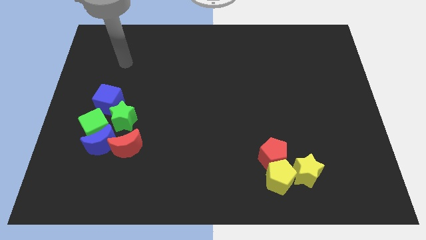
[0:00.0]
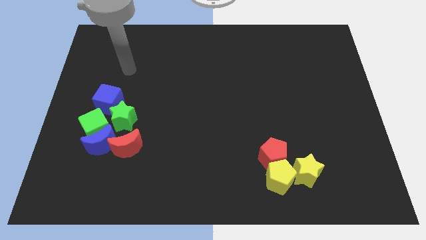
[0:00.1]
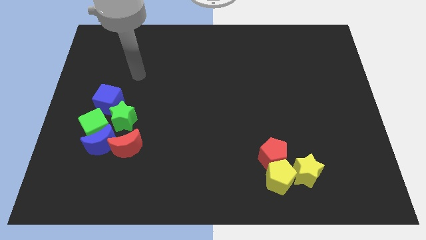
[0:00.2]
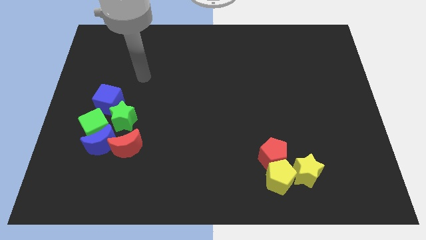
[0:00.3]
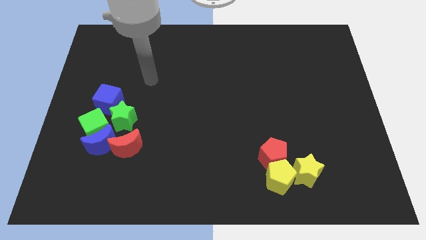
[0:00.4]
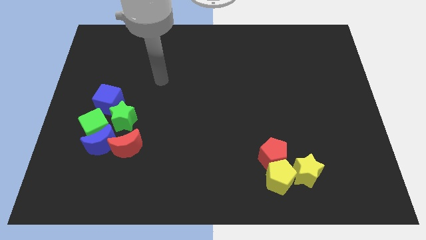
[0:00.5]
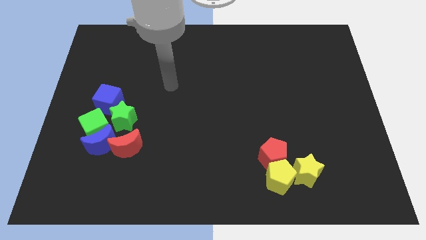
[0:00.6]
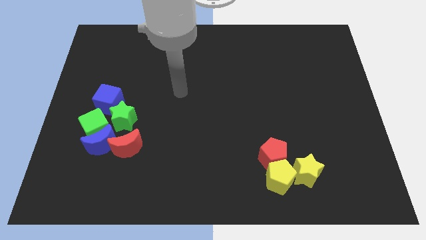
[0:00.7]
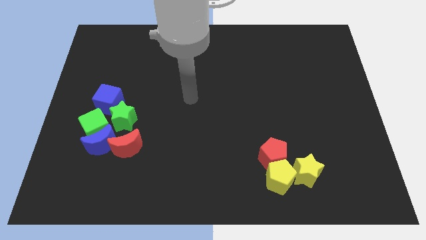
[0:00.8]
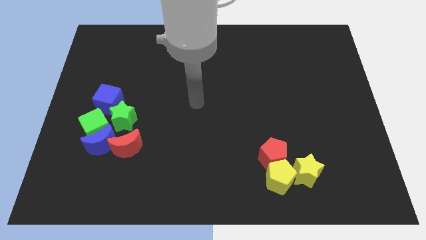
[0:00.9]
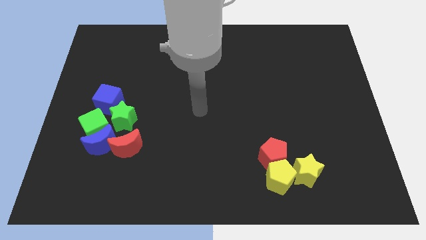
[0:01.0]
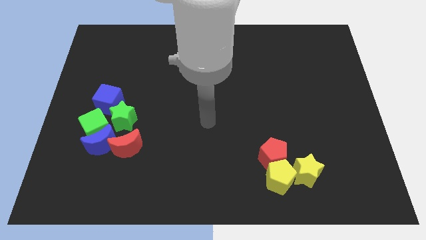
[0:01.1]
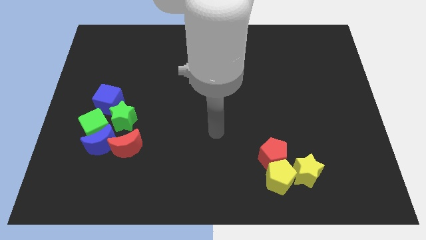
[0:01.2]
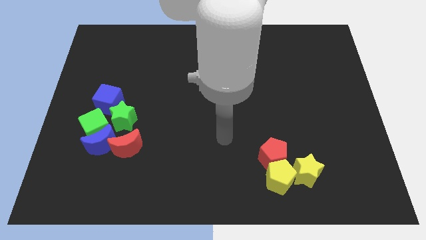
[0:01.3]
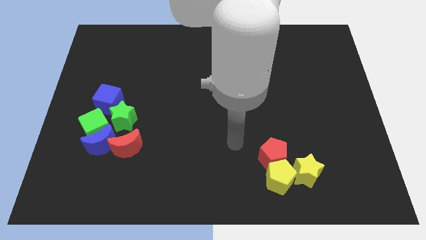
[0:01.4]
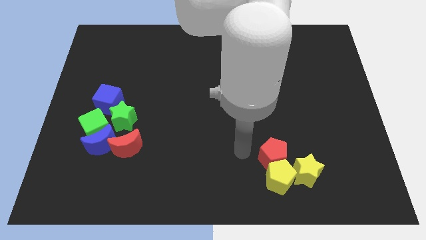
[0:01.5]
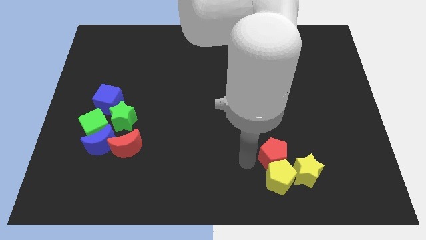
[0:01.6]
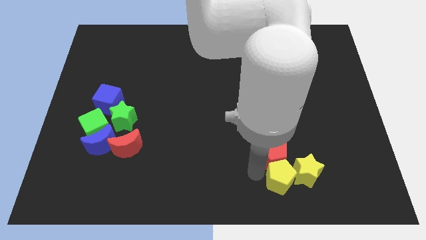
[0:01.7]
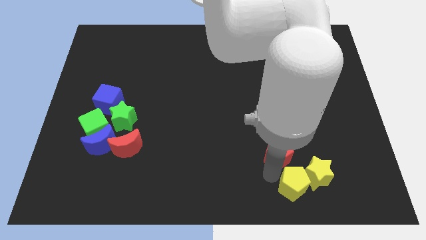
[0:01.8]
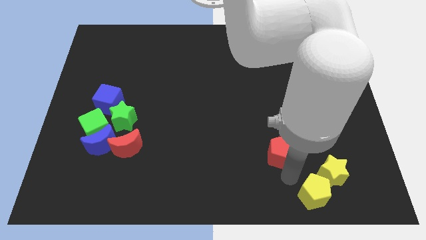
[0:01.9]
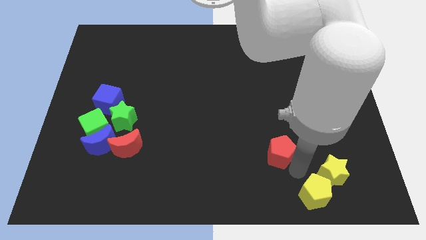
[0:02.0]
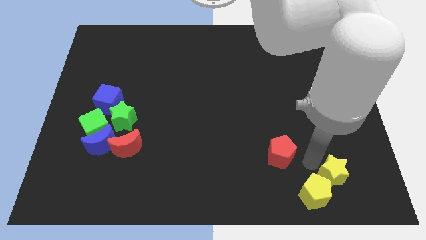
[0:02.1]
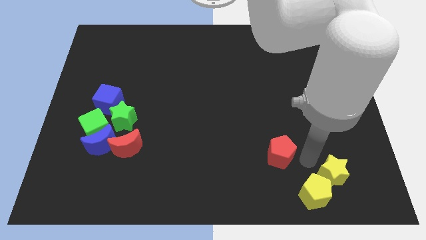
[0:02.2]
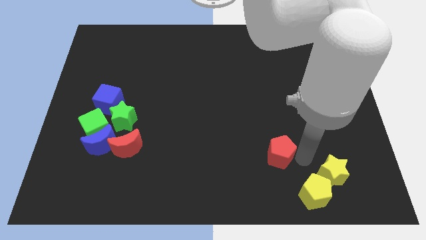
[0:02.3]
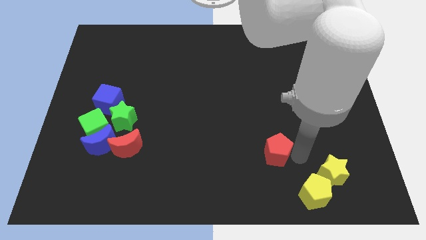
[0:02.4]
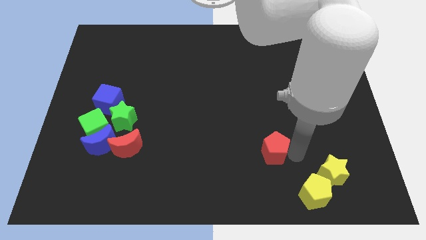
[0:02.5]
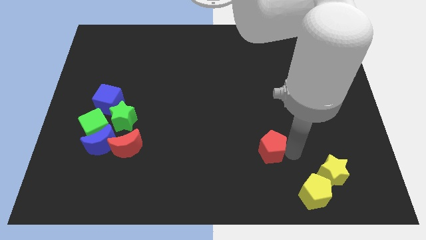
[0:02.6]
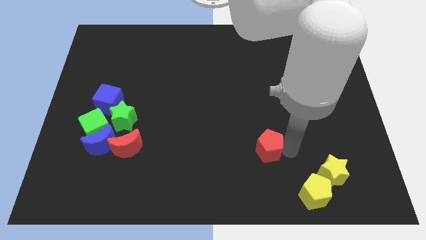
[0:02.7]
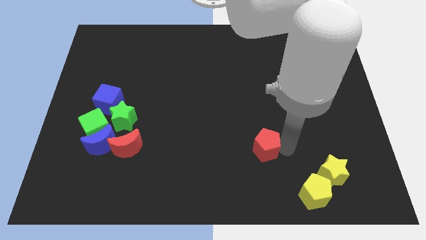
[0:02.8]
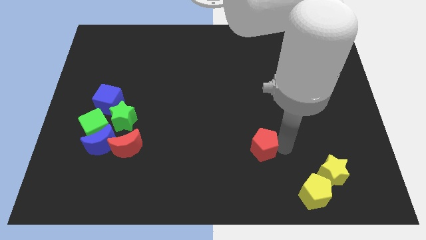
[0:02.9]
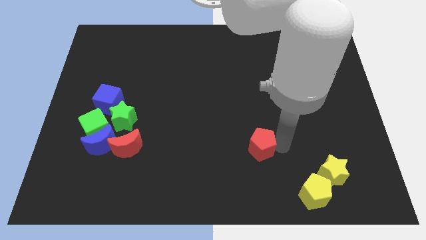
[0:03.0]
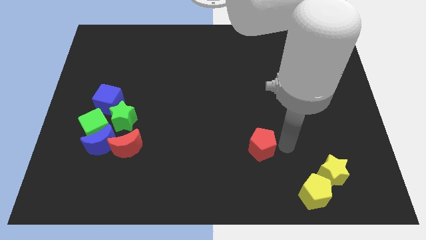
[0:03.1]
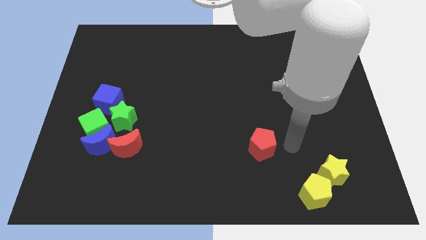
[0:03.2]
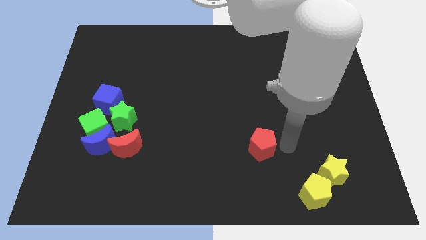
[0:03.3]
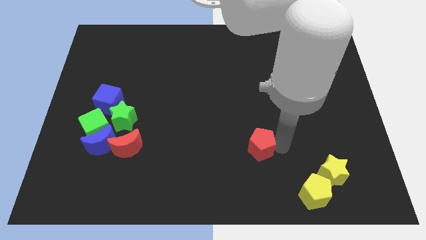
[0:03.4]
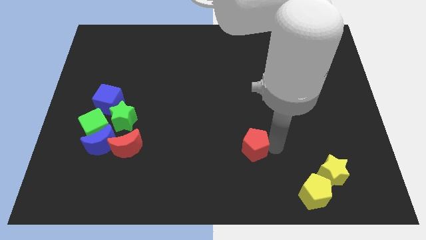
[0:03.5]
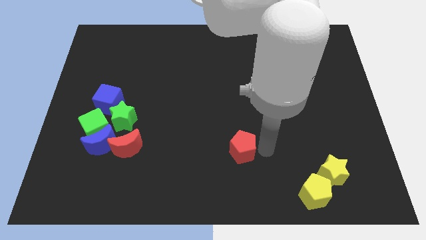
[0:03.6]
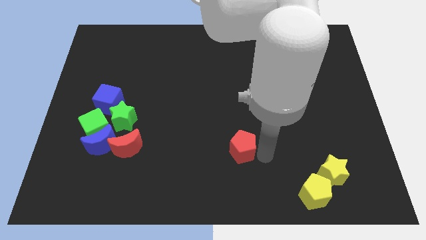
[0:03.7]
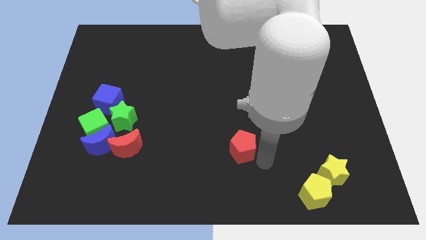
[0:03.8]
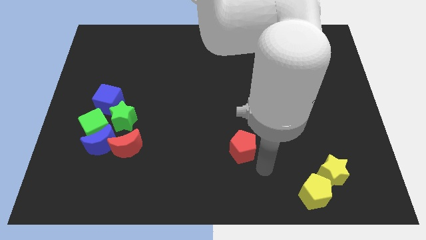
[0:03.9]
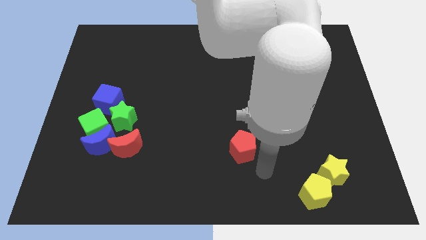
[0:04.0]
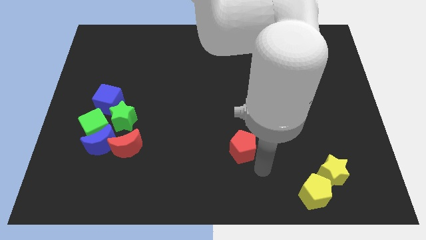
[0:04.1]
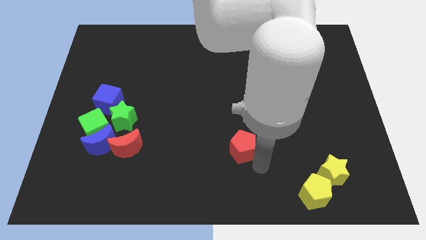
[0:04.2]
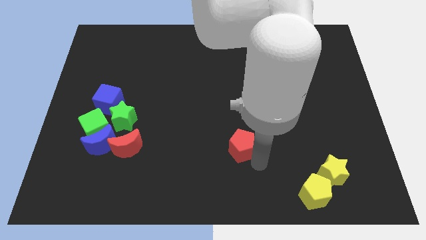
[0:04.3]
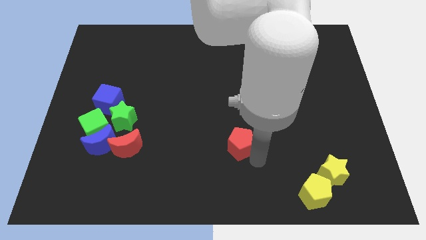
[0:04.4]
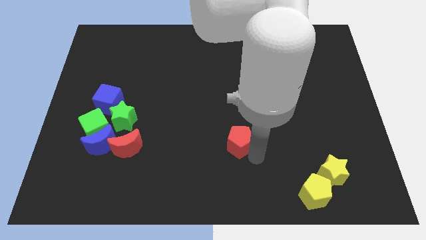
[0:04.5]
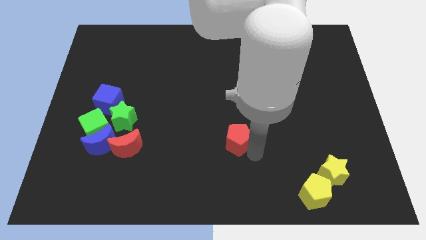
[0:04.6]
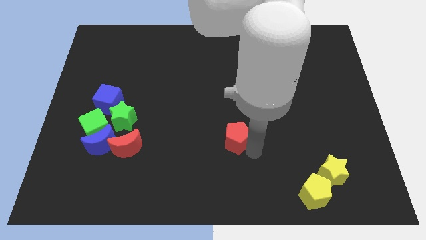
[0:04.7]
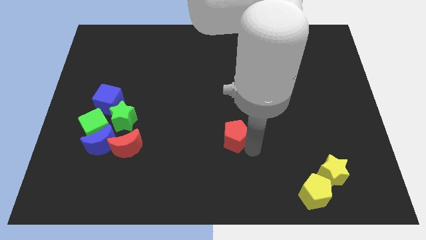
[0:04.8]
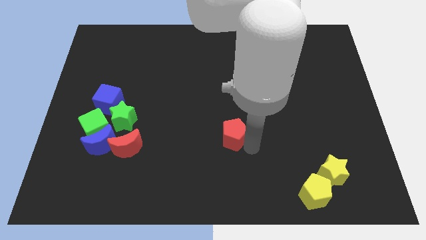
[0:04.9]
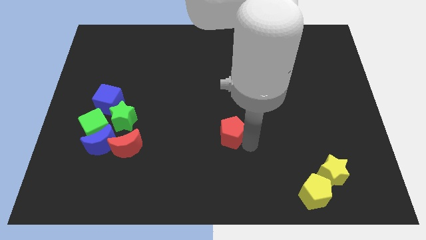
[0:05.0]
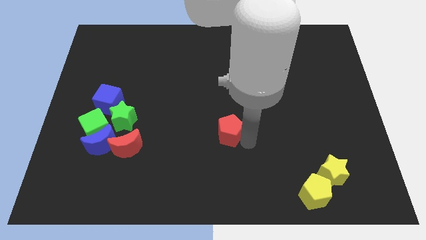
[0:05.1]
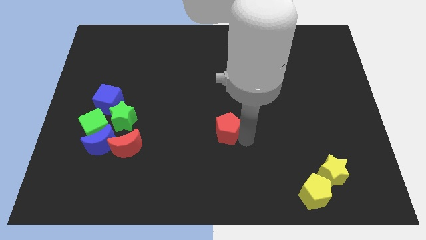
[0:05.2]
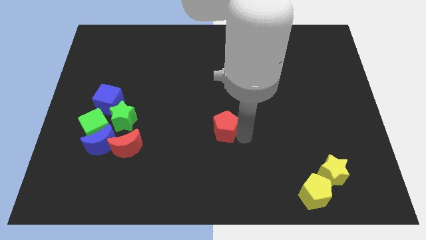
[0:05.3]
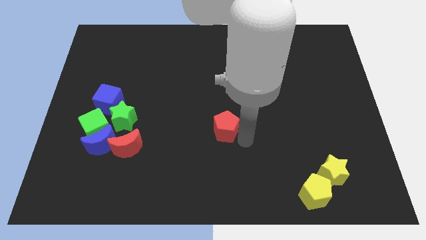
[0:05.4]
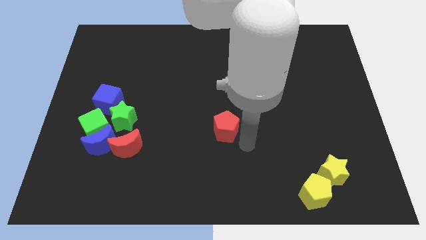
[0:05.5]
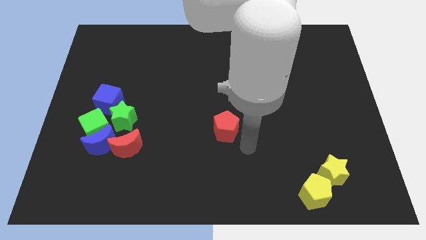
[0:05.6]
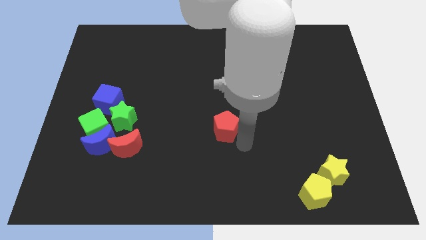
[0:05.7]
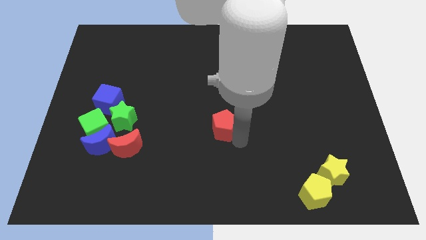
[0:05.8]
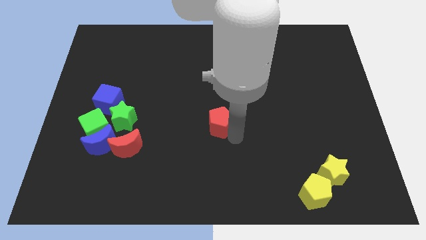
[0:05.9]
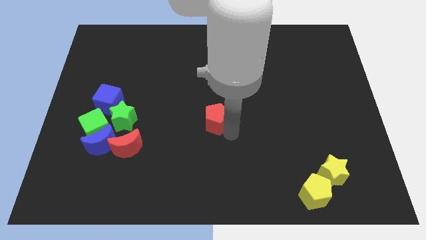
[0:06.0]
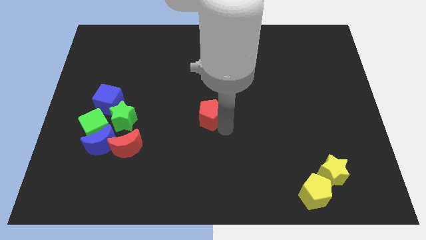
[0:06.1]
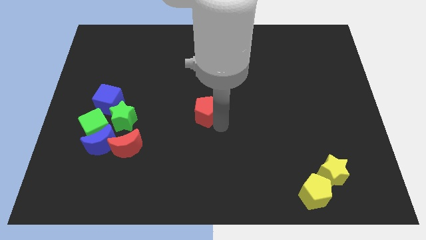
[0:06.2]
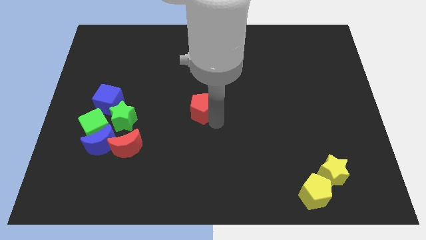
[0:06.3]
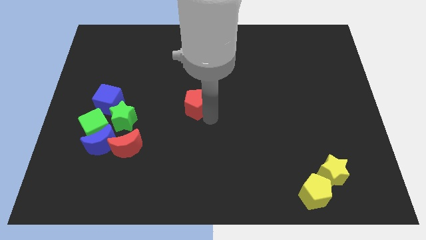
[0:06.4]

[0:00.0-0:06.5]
move the red pentagon up and then left

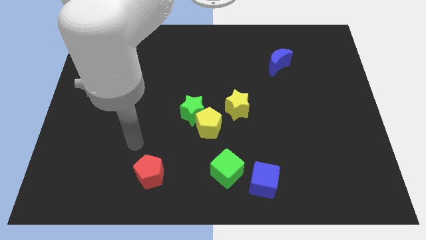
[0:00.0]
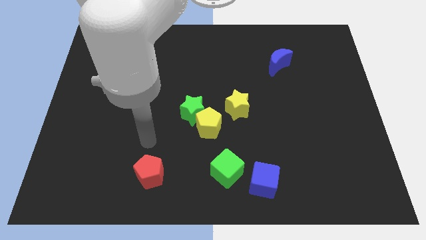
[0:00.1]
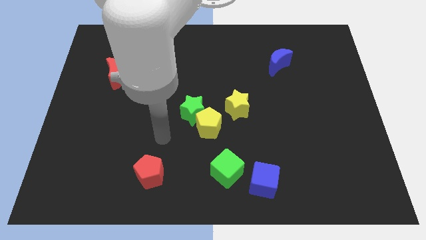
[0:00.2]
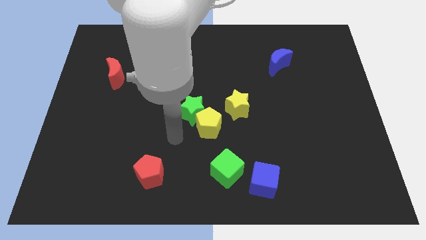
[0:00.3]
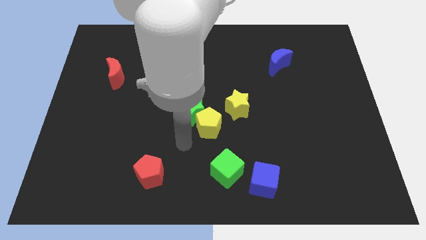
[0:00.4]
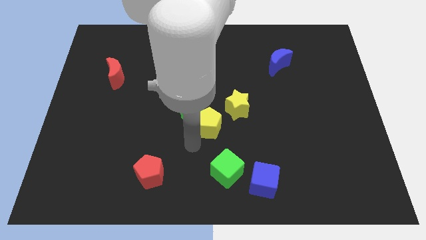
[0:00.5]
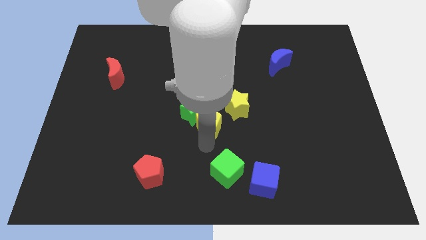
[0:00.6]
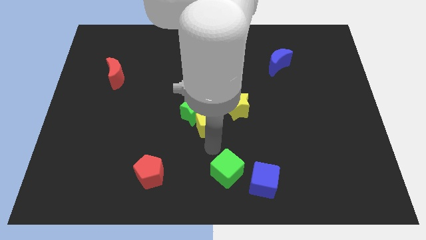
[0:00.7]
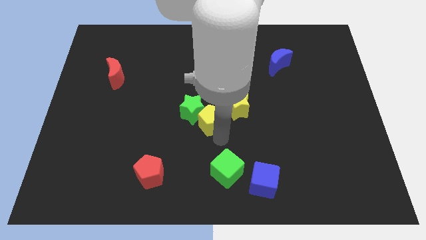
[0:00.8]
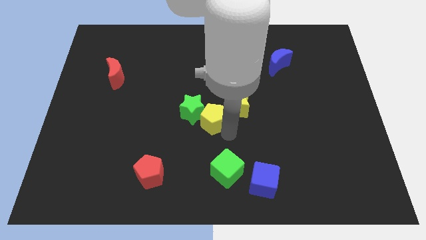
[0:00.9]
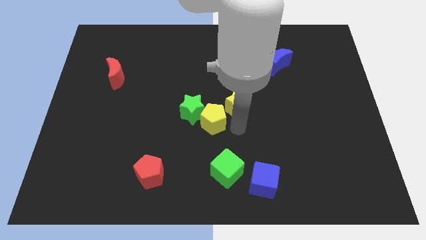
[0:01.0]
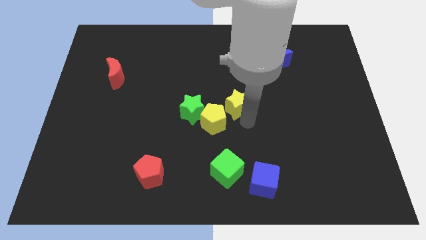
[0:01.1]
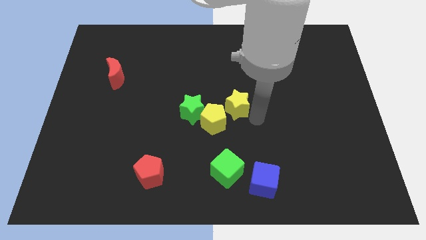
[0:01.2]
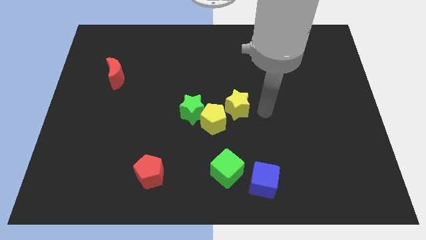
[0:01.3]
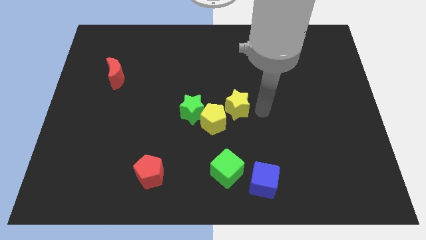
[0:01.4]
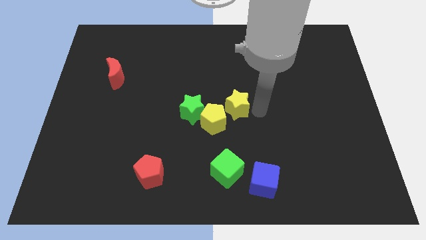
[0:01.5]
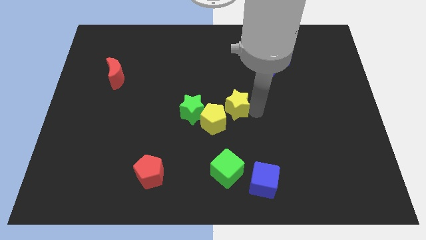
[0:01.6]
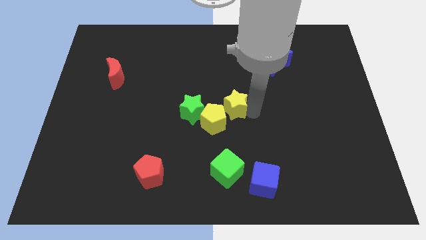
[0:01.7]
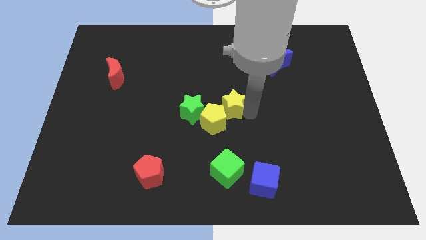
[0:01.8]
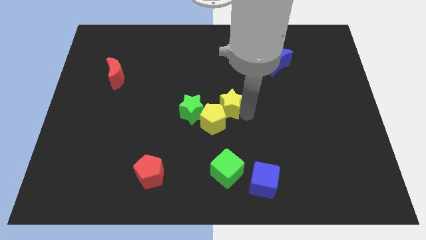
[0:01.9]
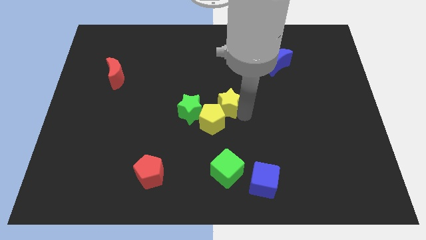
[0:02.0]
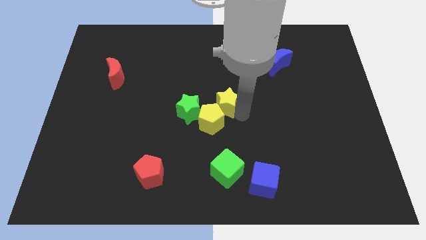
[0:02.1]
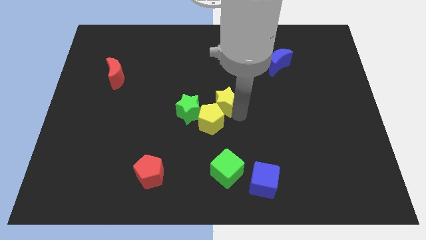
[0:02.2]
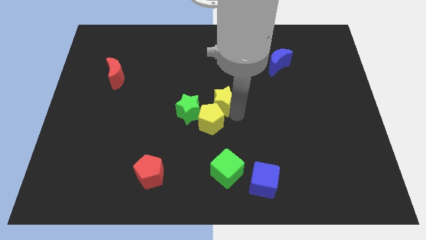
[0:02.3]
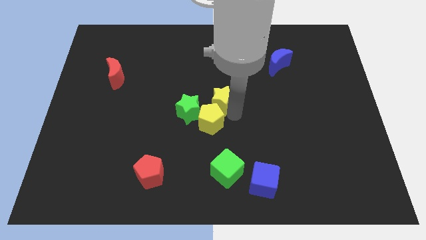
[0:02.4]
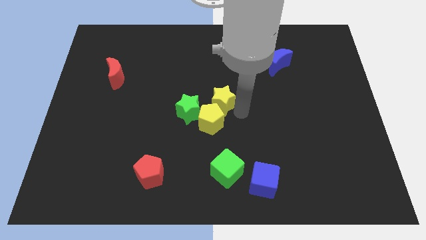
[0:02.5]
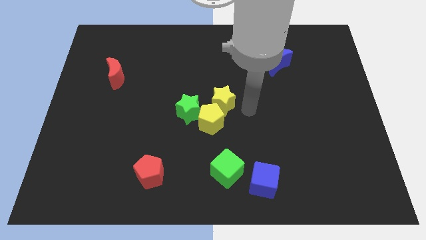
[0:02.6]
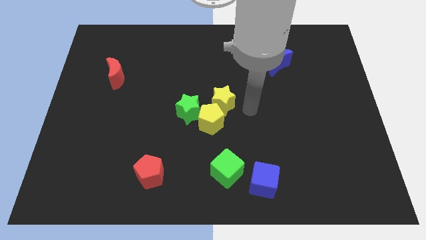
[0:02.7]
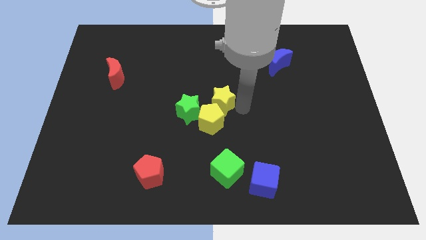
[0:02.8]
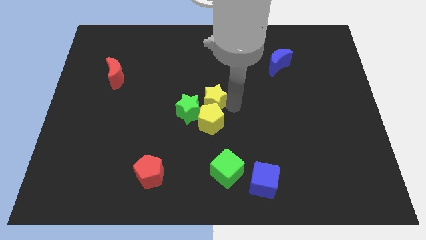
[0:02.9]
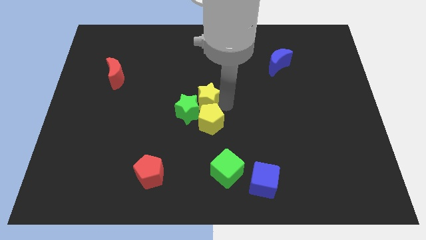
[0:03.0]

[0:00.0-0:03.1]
slightly push the yellow star left
